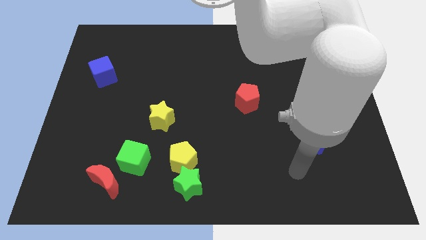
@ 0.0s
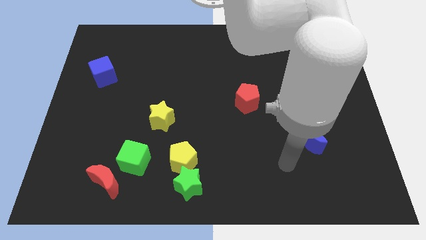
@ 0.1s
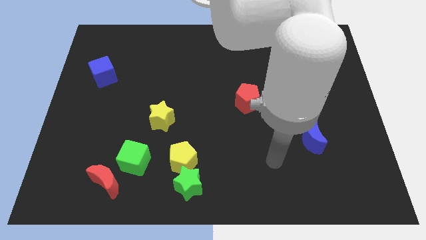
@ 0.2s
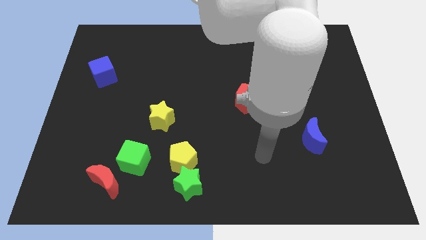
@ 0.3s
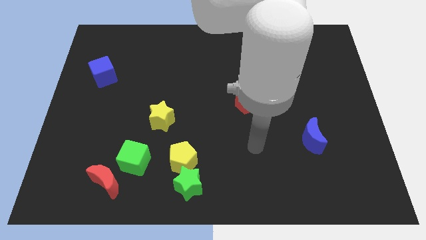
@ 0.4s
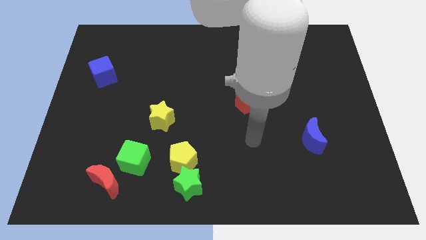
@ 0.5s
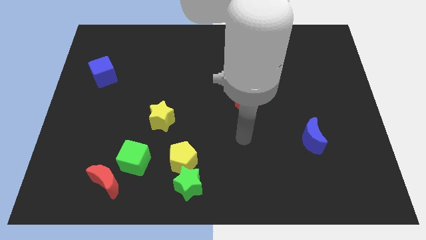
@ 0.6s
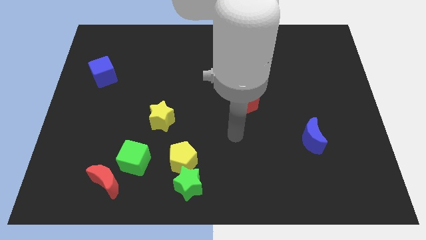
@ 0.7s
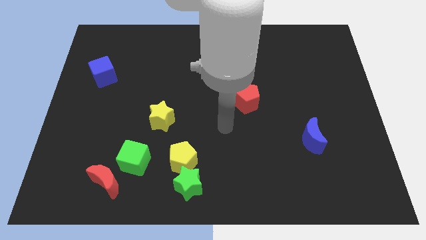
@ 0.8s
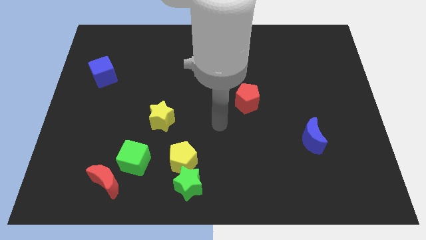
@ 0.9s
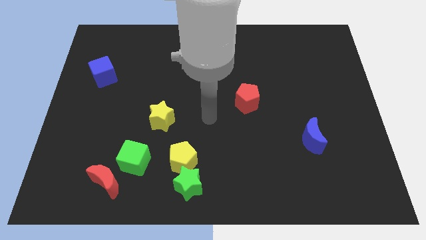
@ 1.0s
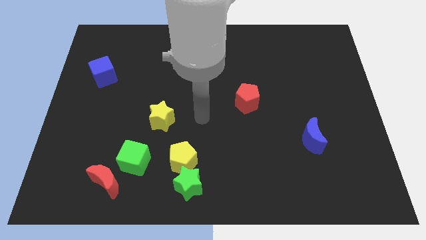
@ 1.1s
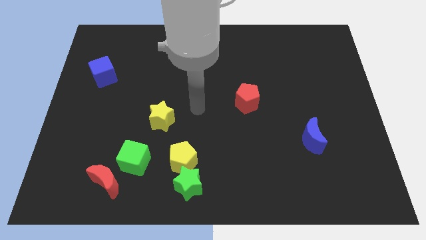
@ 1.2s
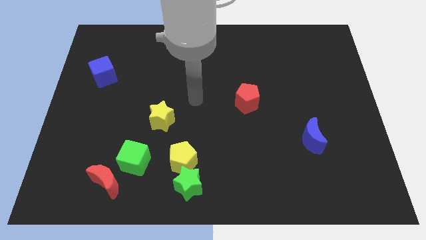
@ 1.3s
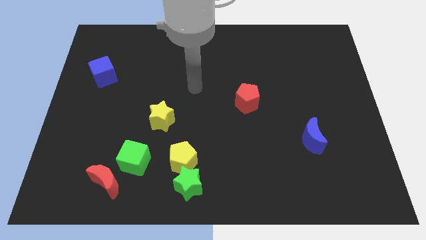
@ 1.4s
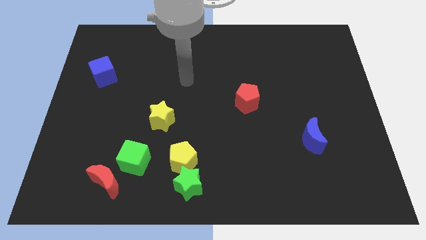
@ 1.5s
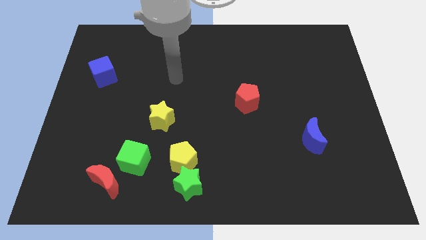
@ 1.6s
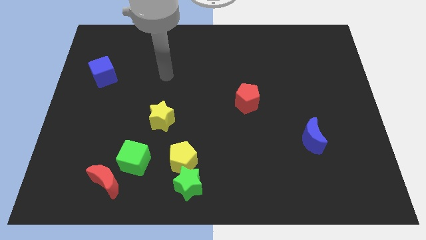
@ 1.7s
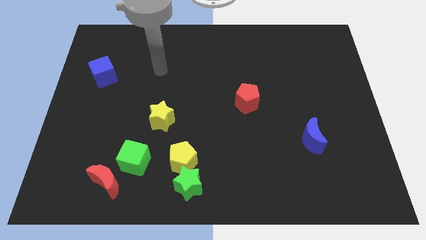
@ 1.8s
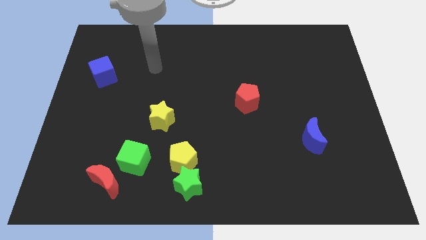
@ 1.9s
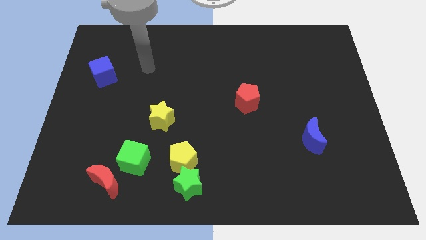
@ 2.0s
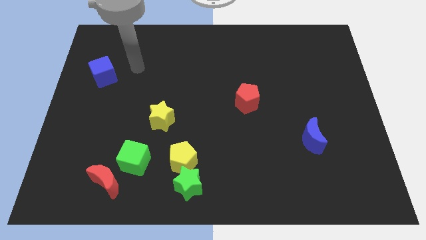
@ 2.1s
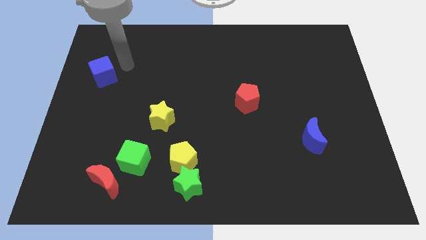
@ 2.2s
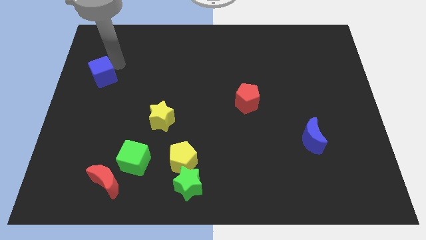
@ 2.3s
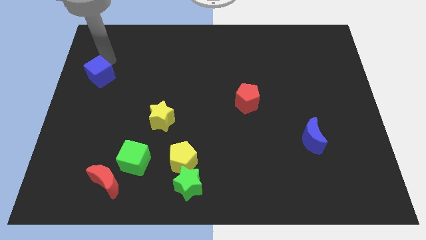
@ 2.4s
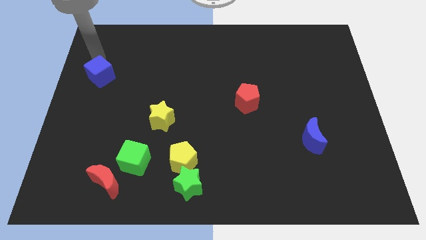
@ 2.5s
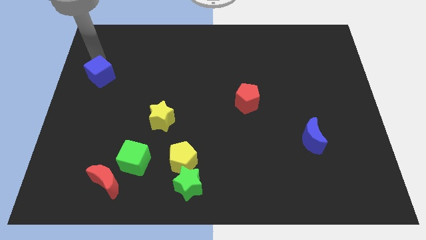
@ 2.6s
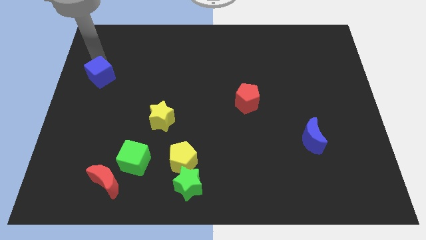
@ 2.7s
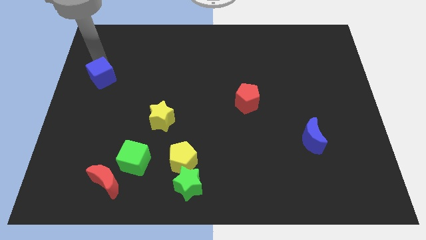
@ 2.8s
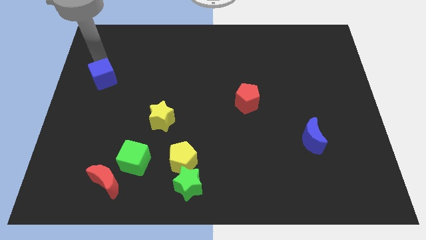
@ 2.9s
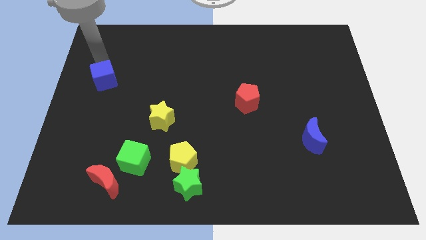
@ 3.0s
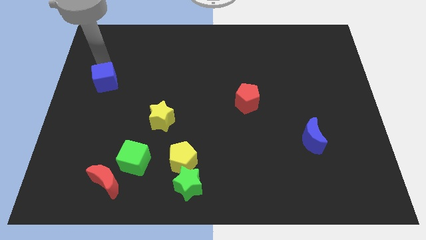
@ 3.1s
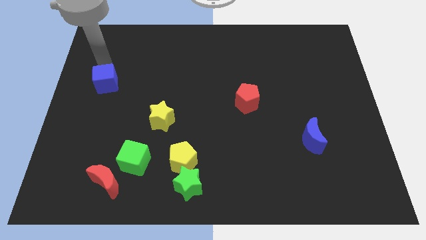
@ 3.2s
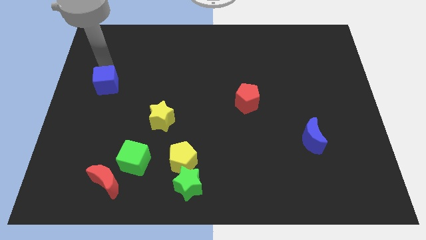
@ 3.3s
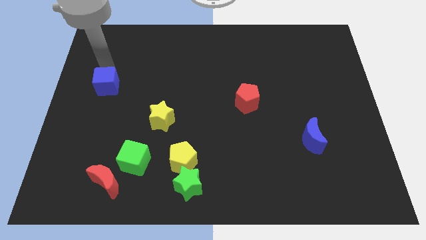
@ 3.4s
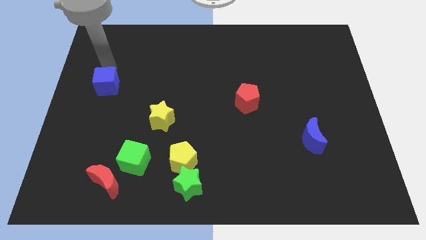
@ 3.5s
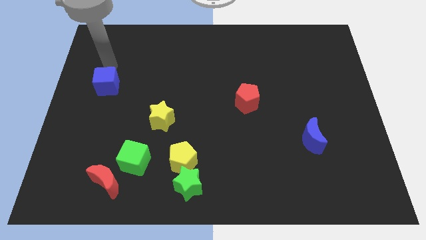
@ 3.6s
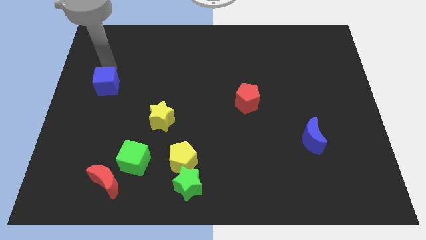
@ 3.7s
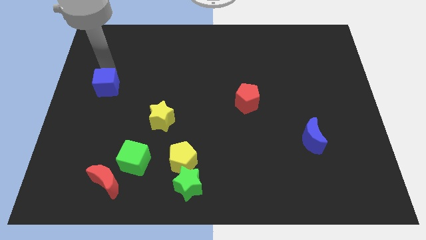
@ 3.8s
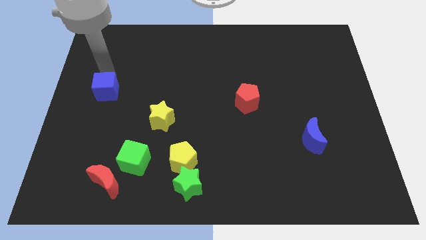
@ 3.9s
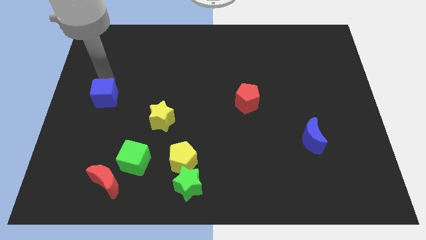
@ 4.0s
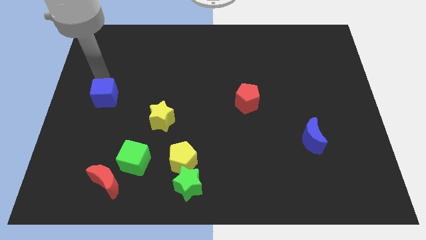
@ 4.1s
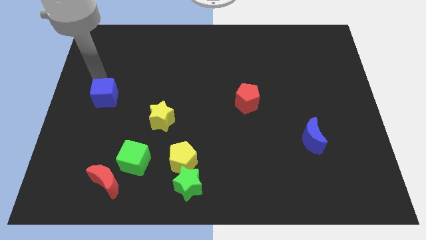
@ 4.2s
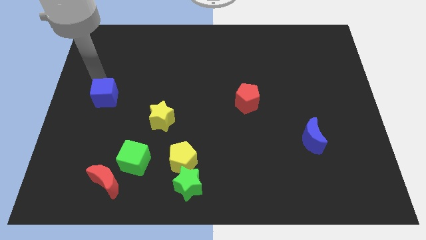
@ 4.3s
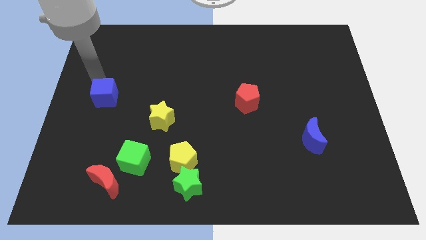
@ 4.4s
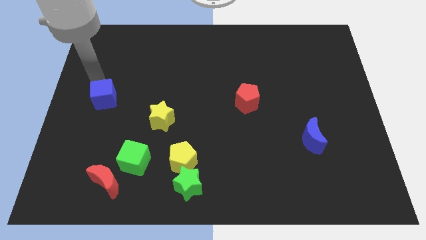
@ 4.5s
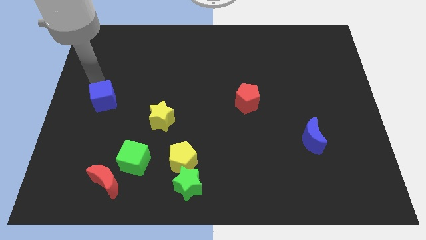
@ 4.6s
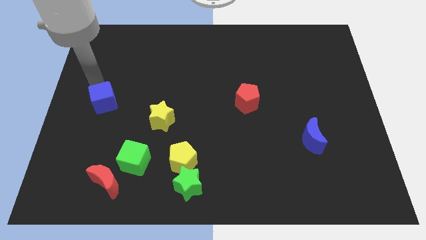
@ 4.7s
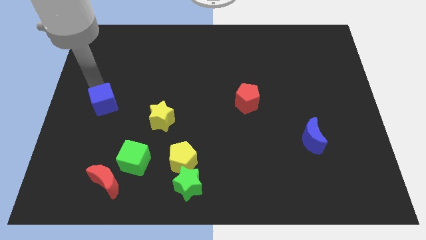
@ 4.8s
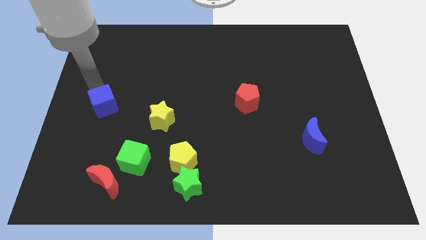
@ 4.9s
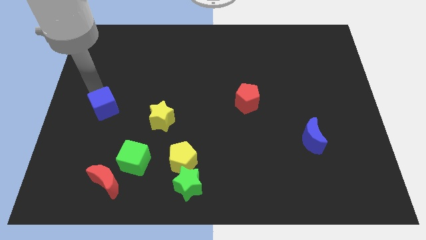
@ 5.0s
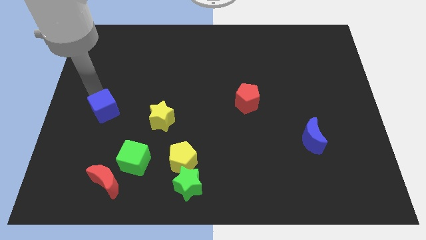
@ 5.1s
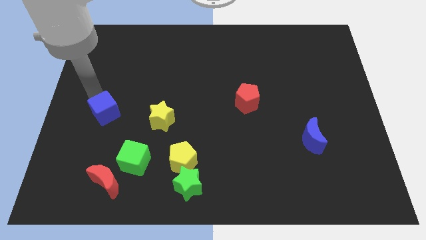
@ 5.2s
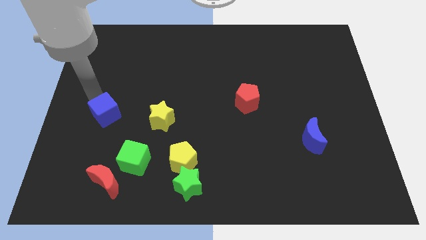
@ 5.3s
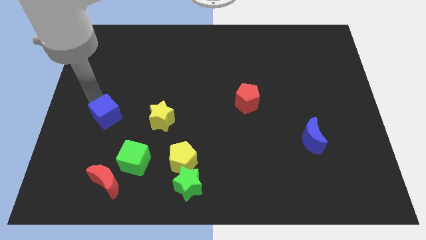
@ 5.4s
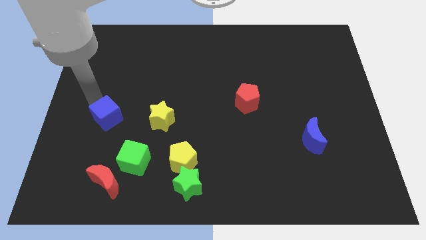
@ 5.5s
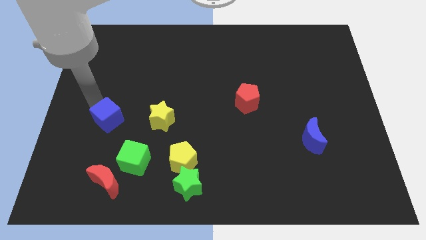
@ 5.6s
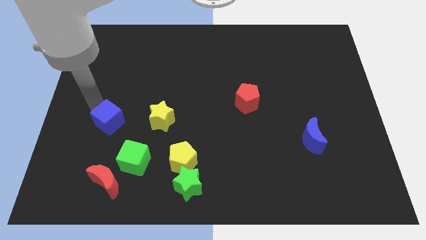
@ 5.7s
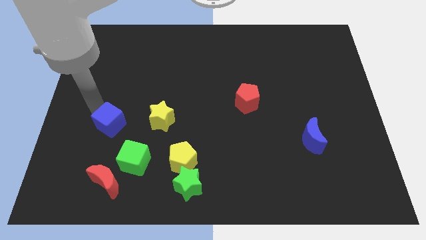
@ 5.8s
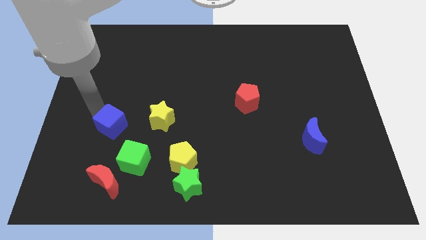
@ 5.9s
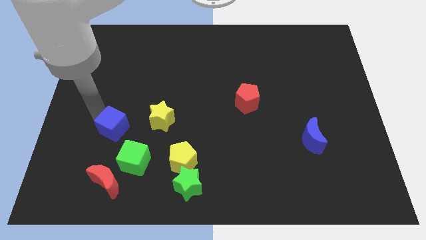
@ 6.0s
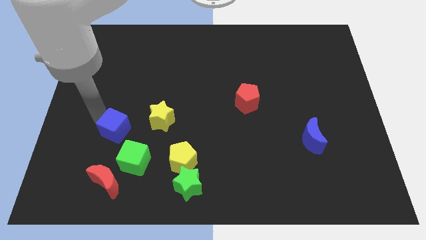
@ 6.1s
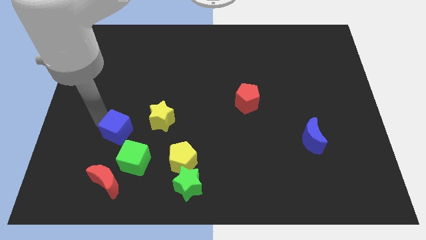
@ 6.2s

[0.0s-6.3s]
move the blue cube to the top of the green cube

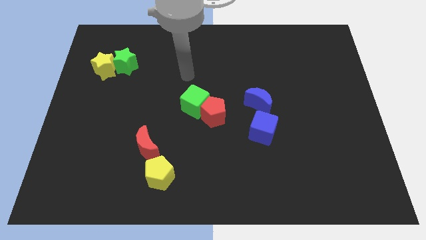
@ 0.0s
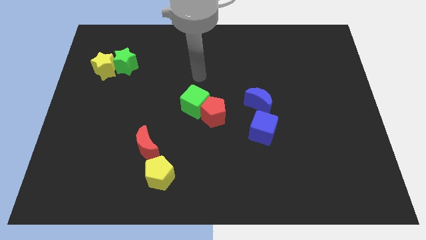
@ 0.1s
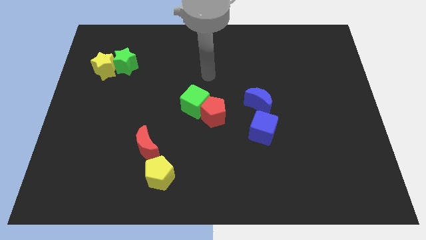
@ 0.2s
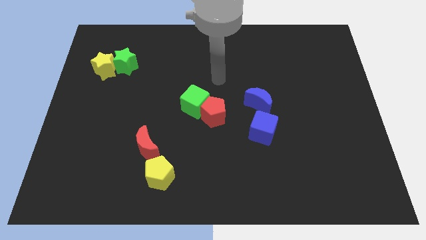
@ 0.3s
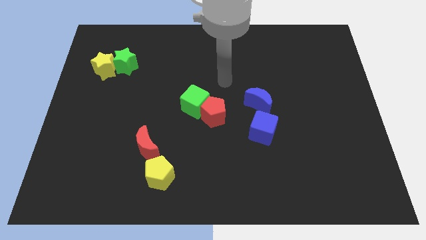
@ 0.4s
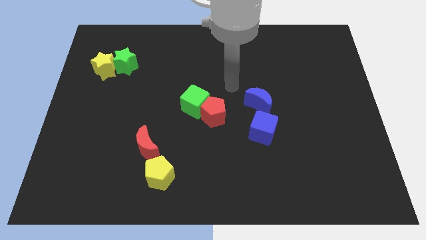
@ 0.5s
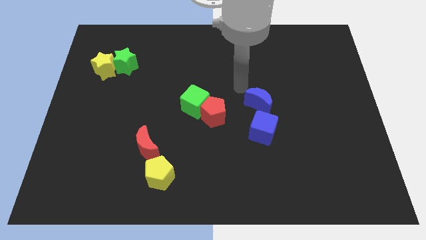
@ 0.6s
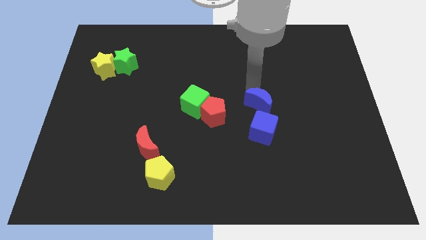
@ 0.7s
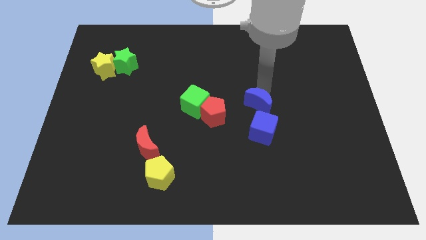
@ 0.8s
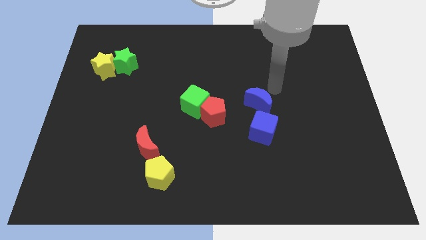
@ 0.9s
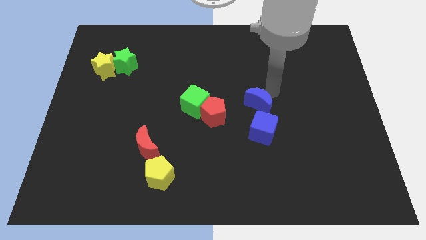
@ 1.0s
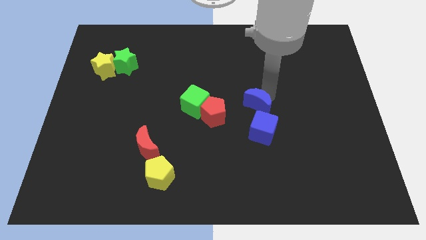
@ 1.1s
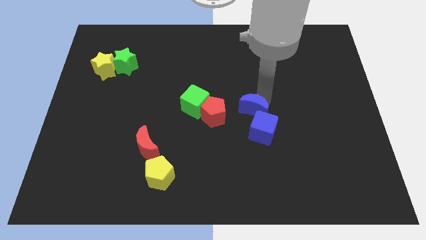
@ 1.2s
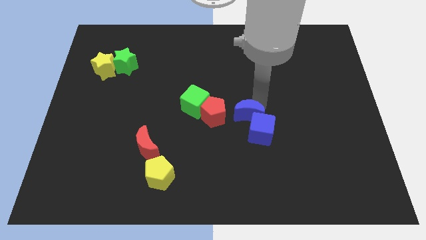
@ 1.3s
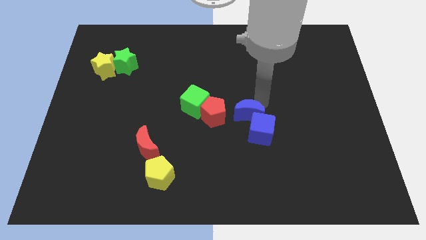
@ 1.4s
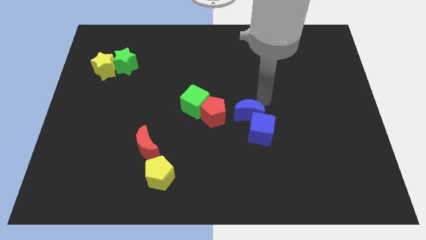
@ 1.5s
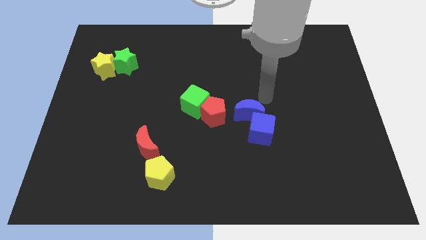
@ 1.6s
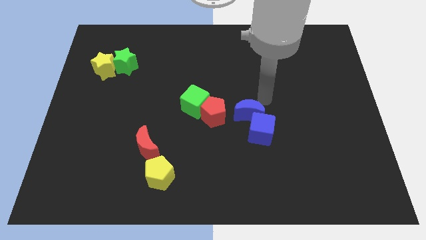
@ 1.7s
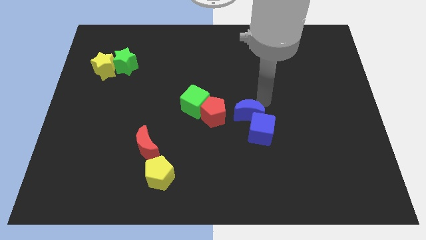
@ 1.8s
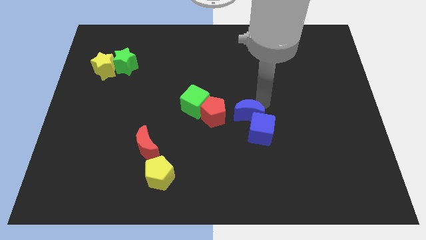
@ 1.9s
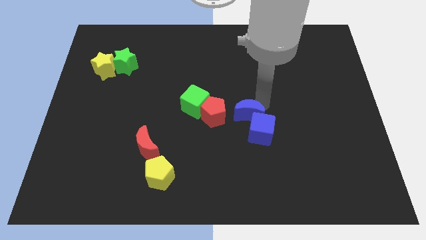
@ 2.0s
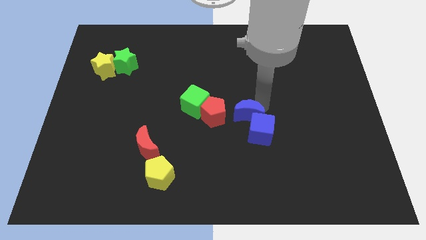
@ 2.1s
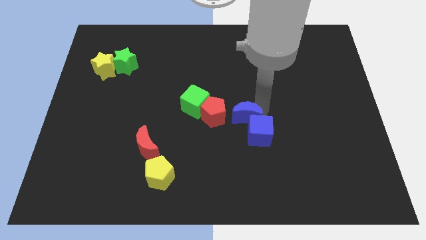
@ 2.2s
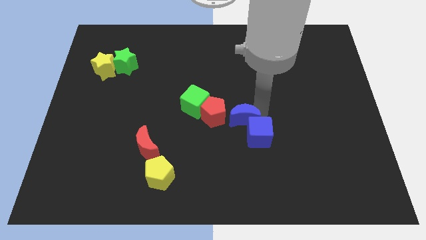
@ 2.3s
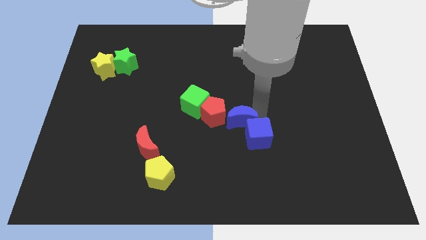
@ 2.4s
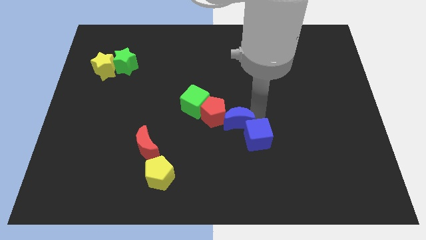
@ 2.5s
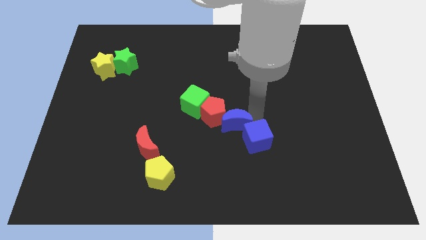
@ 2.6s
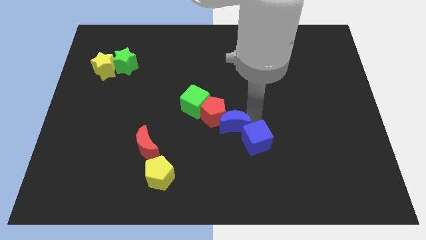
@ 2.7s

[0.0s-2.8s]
slide the blue moon below the red pentagon
